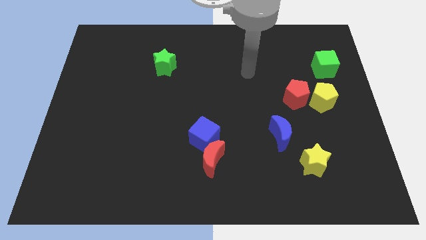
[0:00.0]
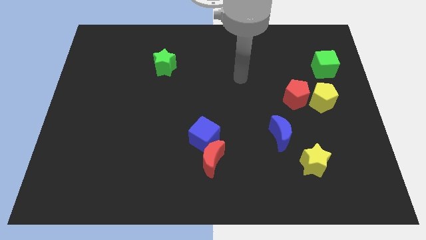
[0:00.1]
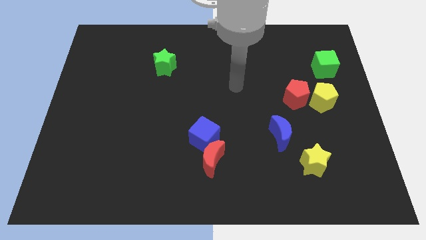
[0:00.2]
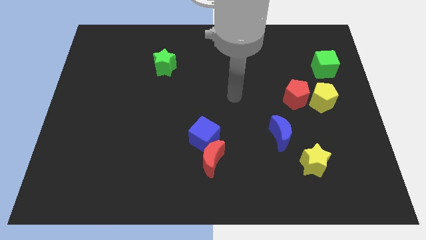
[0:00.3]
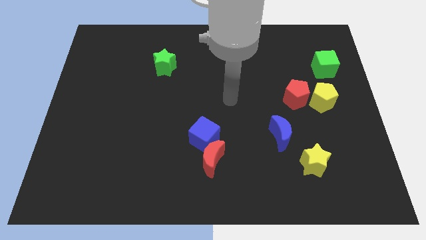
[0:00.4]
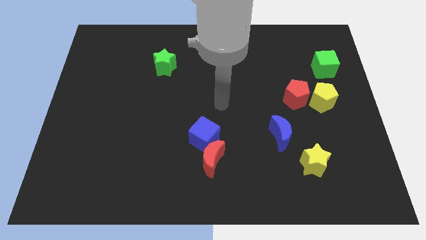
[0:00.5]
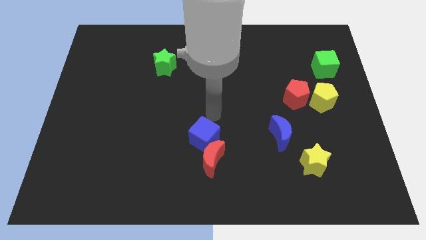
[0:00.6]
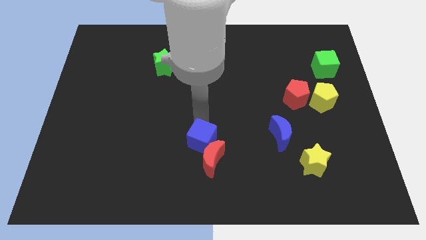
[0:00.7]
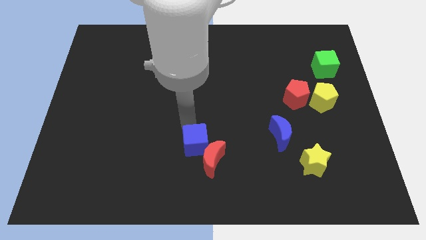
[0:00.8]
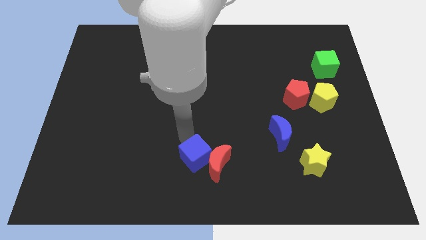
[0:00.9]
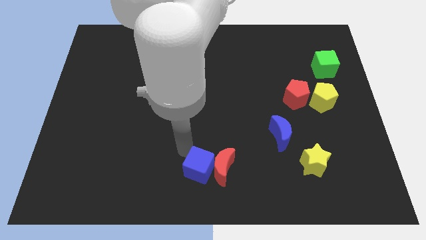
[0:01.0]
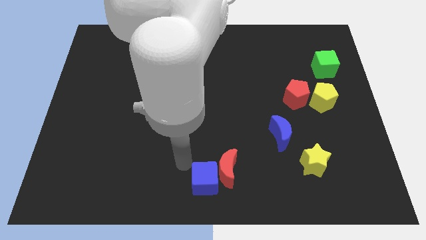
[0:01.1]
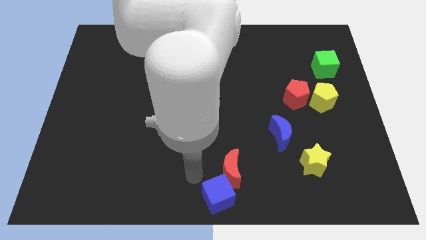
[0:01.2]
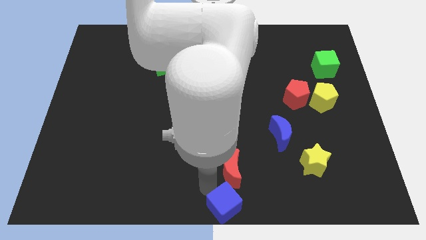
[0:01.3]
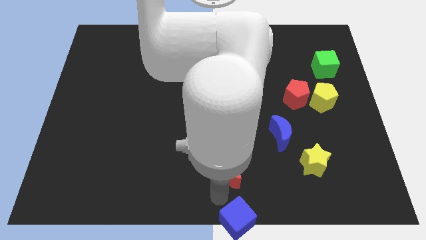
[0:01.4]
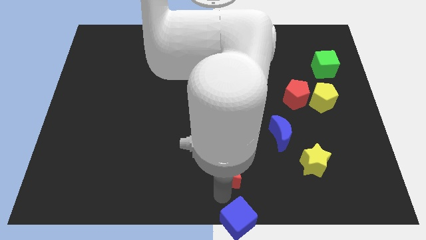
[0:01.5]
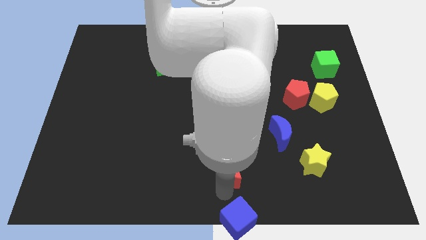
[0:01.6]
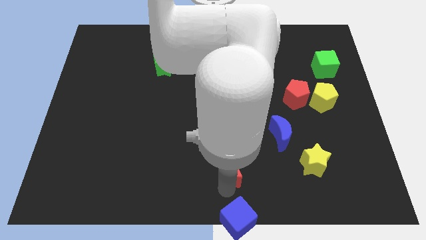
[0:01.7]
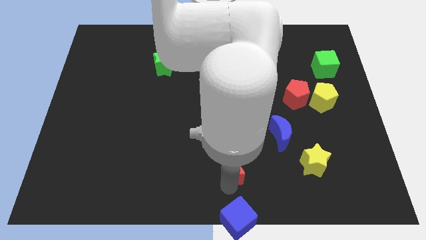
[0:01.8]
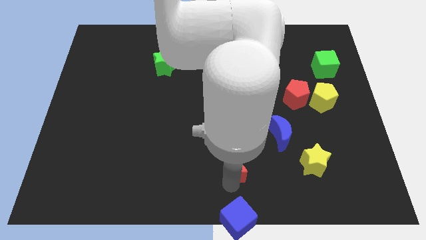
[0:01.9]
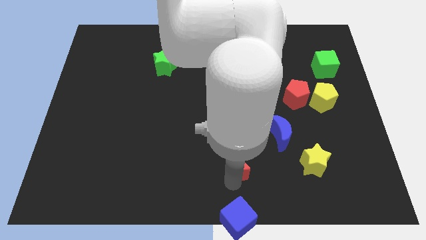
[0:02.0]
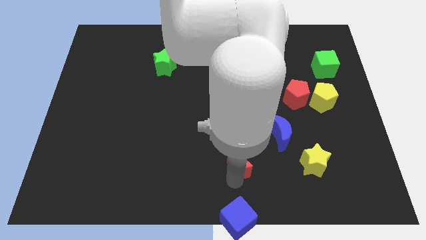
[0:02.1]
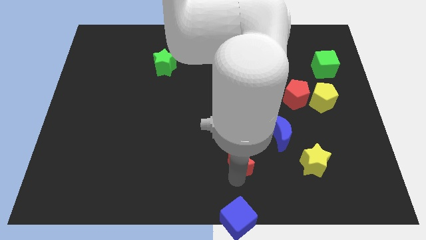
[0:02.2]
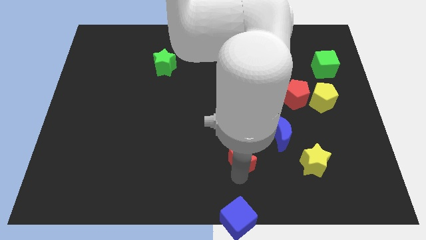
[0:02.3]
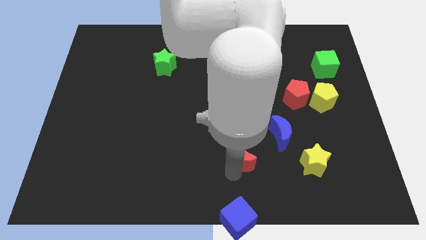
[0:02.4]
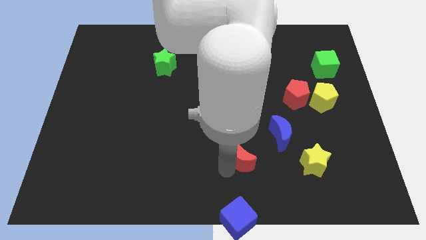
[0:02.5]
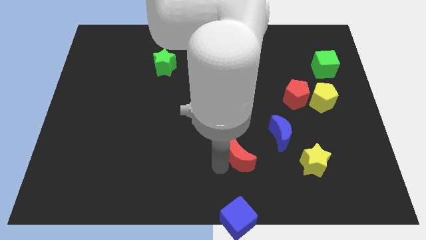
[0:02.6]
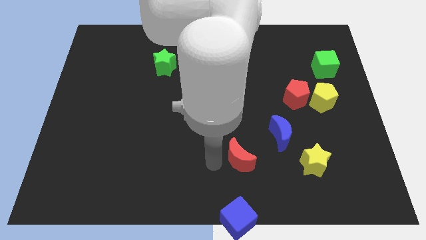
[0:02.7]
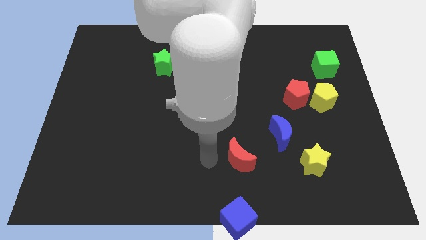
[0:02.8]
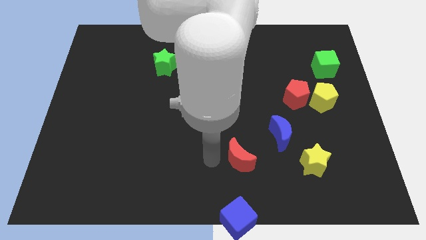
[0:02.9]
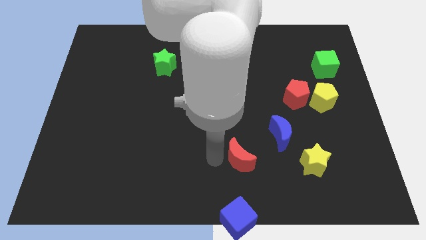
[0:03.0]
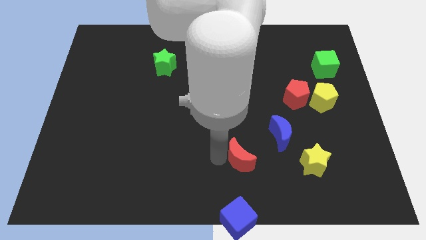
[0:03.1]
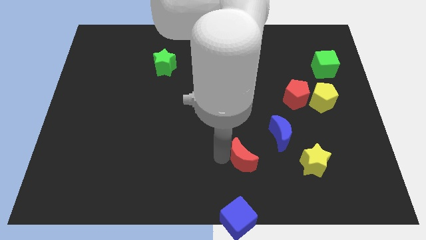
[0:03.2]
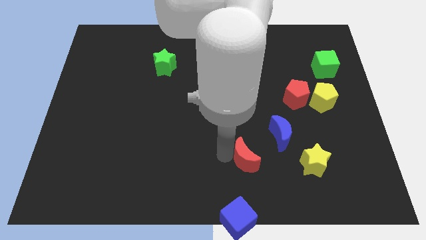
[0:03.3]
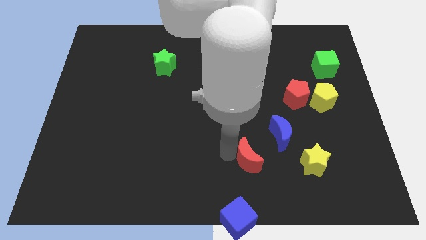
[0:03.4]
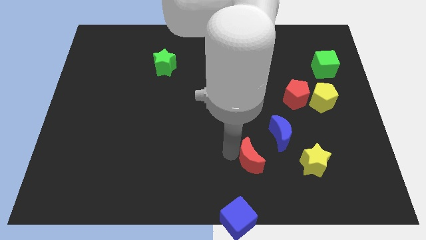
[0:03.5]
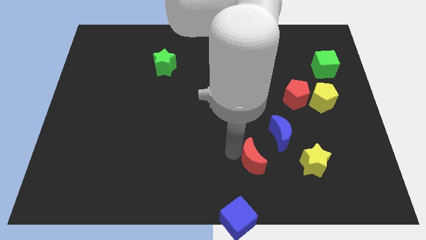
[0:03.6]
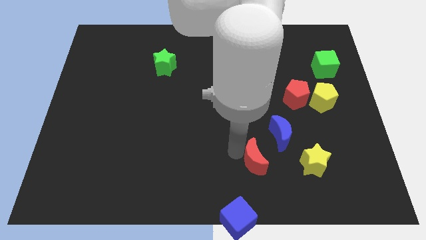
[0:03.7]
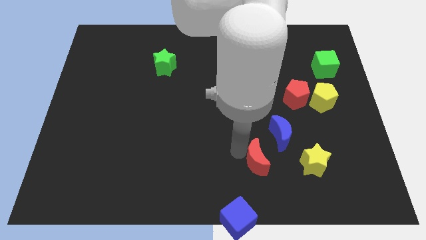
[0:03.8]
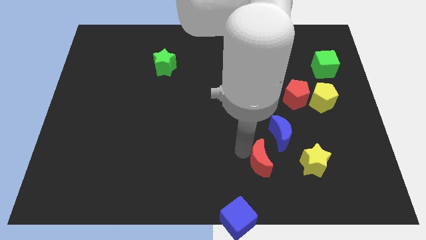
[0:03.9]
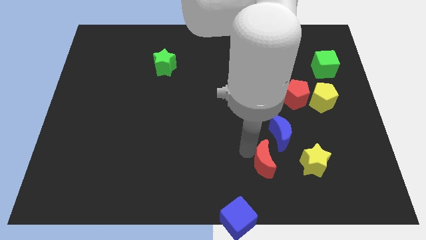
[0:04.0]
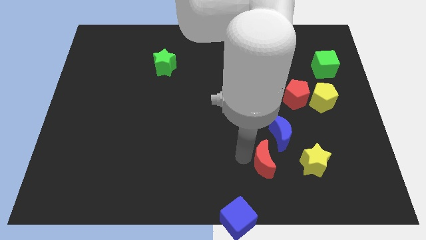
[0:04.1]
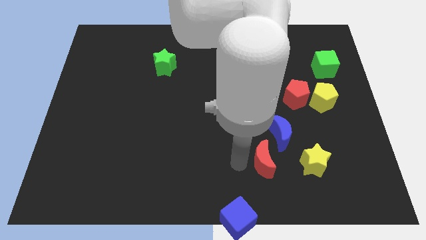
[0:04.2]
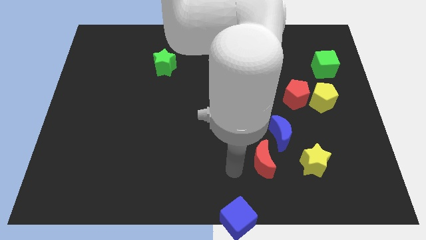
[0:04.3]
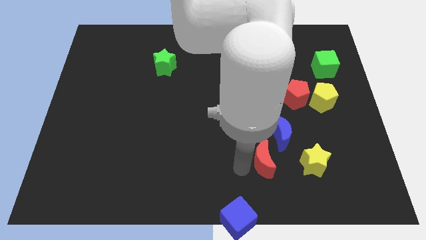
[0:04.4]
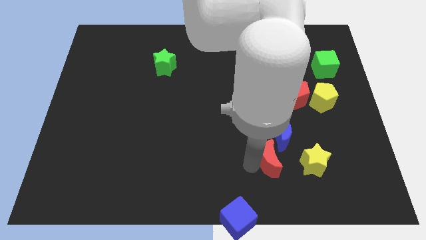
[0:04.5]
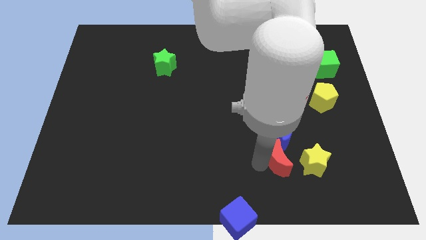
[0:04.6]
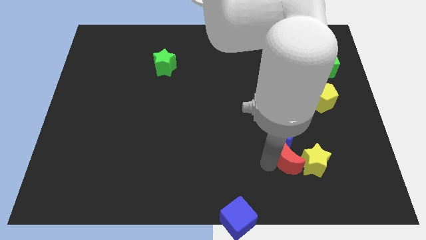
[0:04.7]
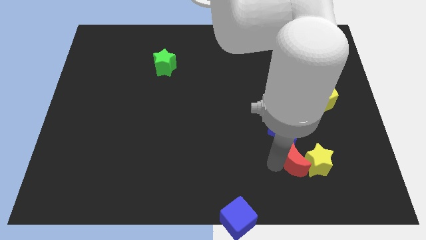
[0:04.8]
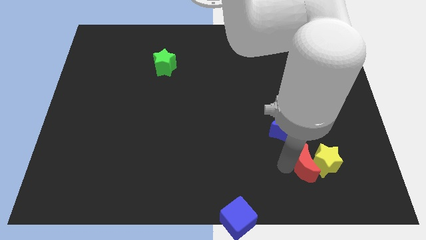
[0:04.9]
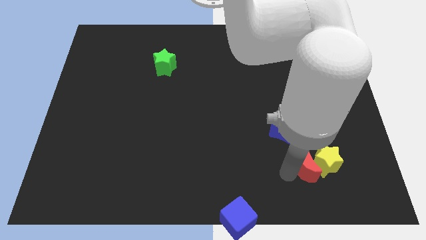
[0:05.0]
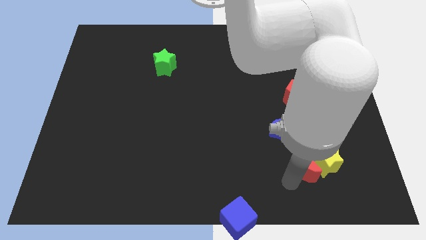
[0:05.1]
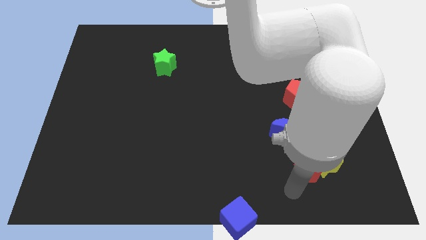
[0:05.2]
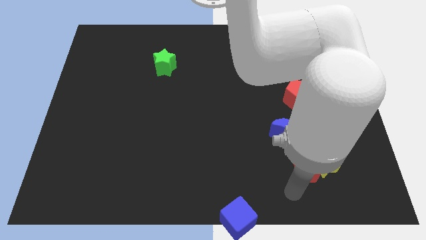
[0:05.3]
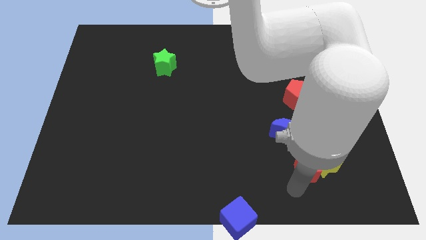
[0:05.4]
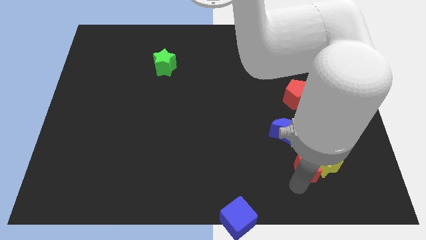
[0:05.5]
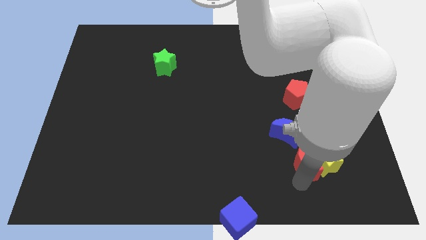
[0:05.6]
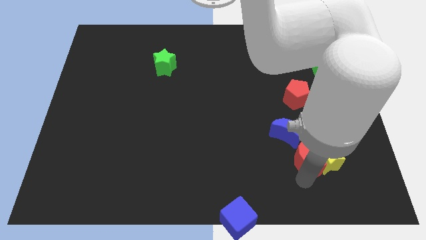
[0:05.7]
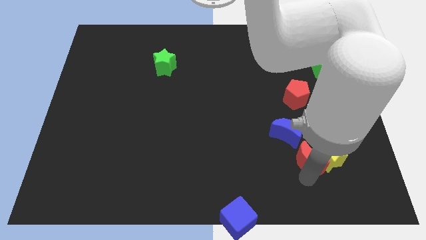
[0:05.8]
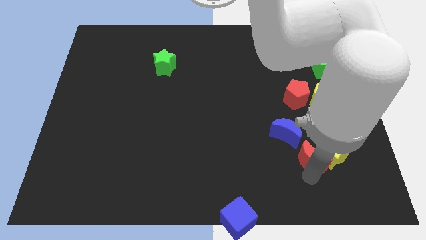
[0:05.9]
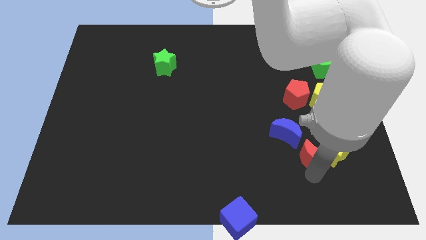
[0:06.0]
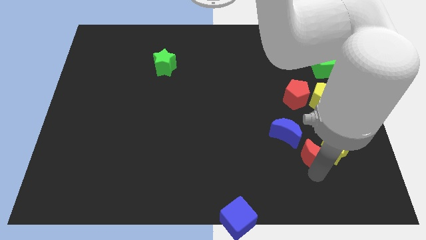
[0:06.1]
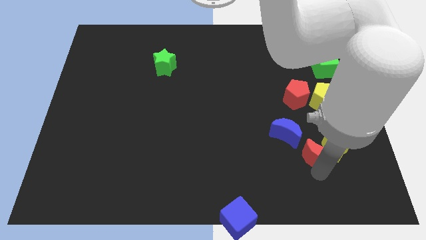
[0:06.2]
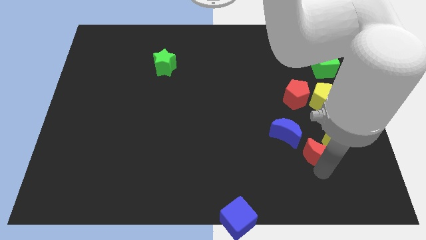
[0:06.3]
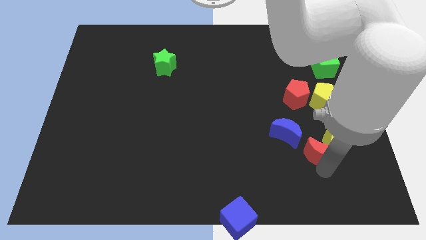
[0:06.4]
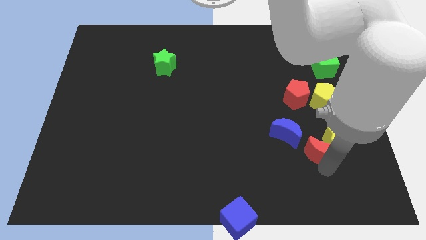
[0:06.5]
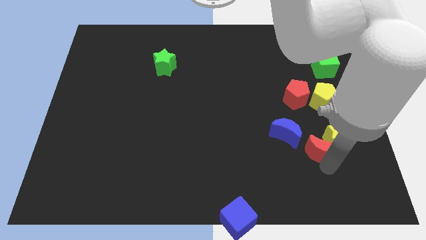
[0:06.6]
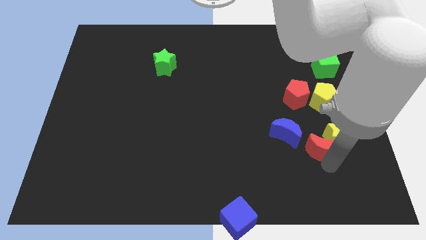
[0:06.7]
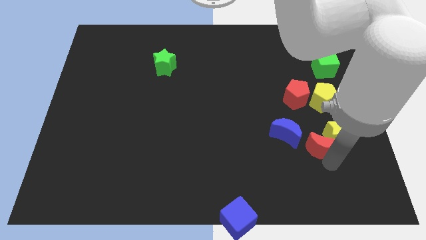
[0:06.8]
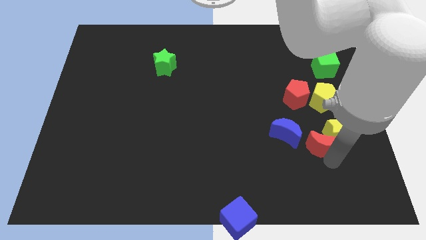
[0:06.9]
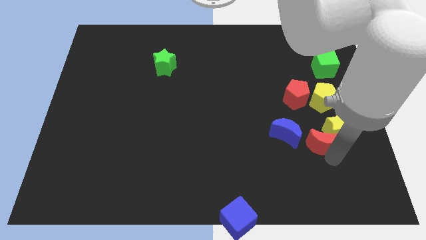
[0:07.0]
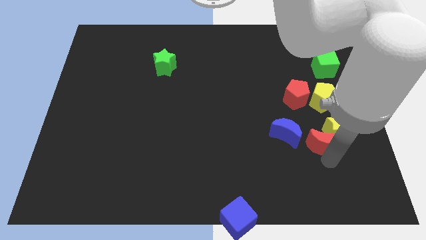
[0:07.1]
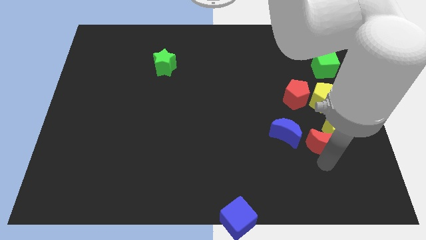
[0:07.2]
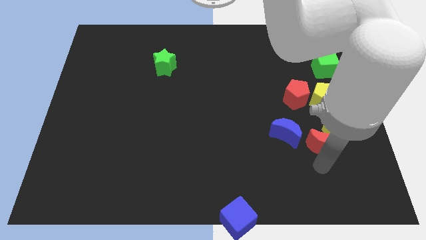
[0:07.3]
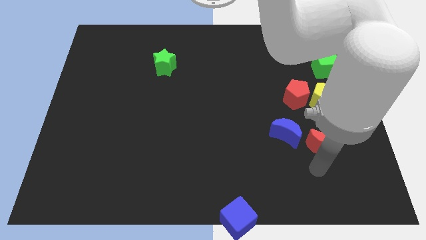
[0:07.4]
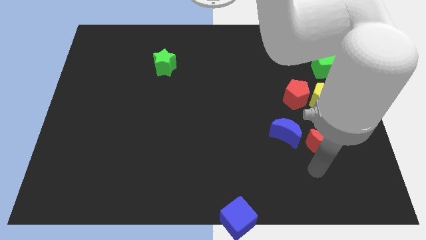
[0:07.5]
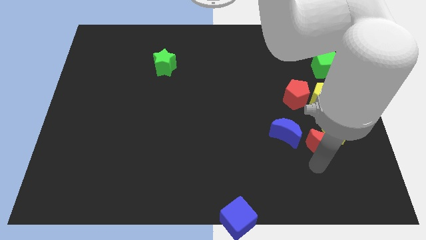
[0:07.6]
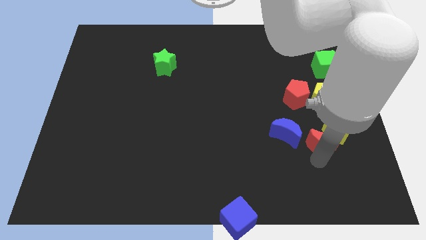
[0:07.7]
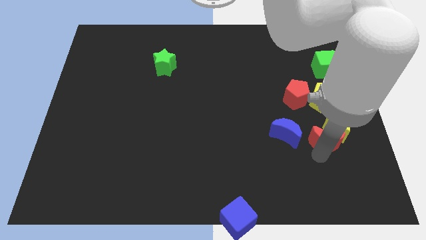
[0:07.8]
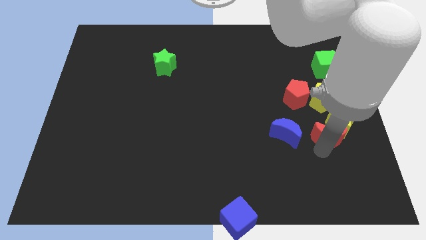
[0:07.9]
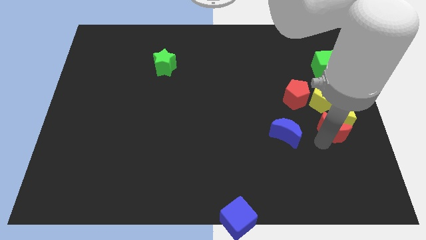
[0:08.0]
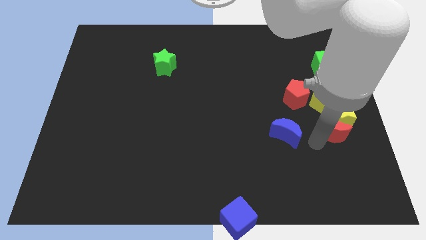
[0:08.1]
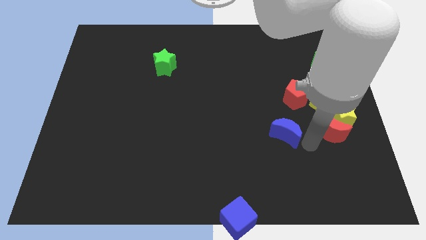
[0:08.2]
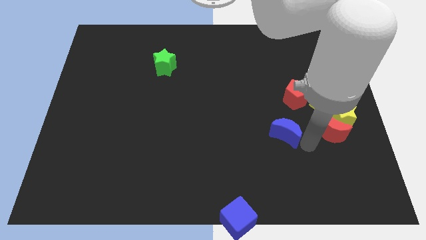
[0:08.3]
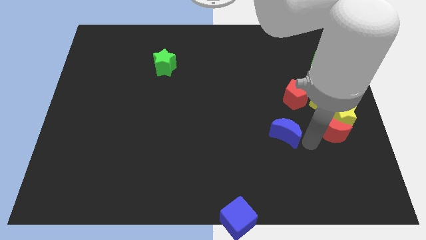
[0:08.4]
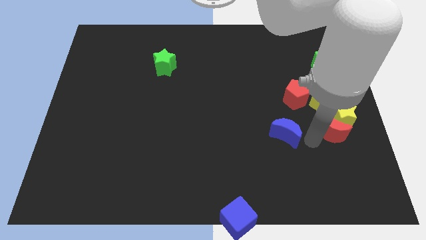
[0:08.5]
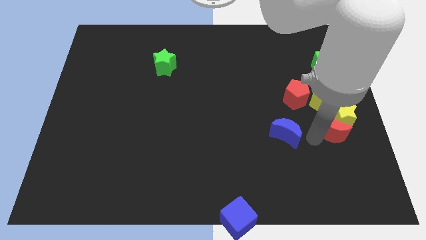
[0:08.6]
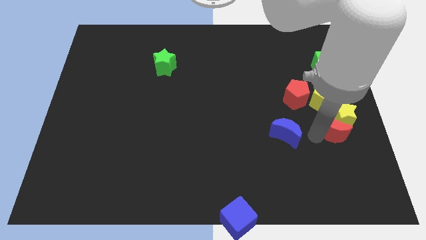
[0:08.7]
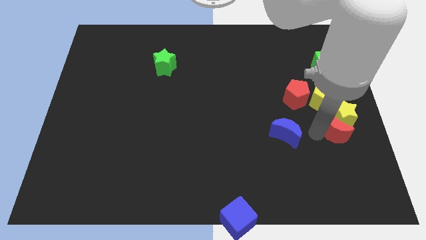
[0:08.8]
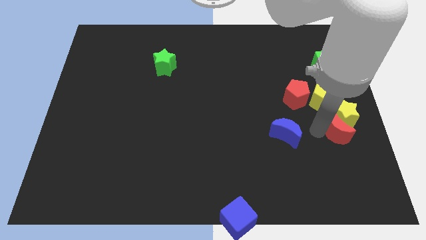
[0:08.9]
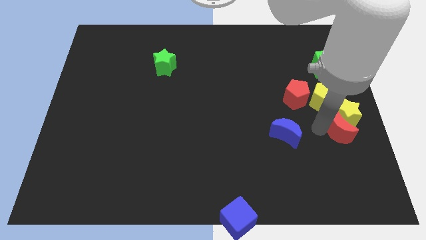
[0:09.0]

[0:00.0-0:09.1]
push the red moon to the right side of the board
